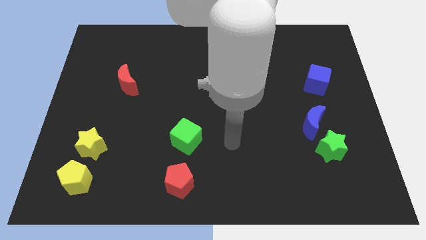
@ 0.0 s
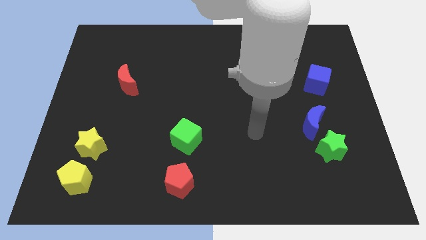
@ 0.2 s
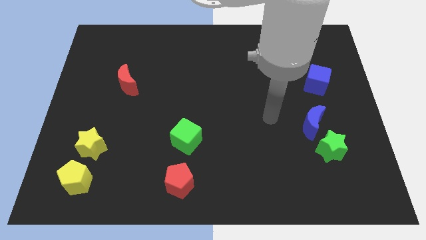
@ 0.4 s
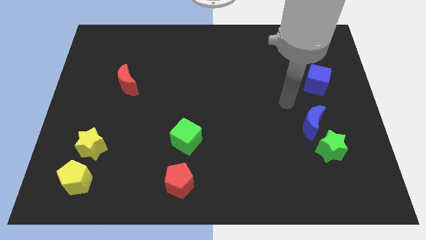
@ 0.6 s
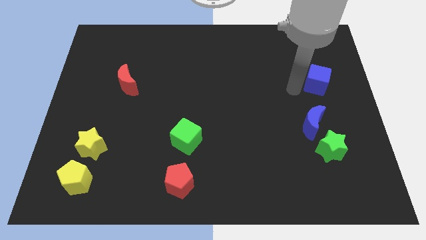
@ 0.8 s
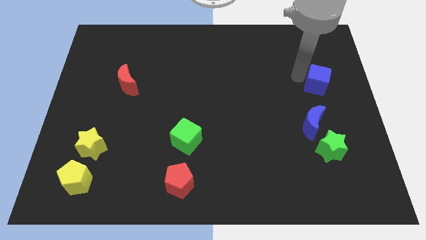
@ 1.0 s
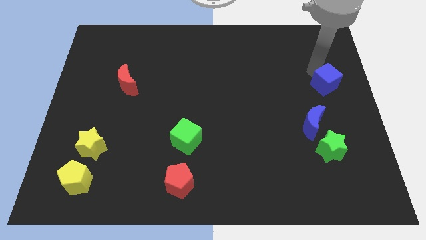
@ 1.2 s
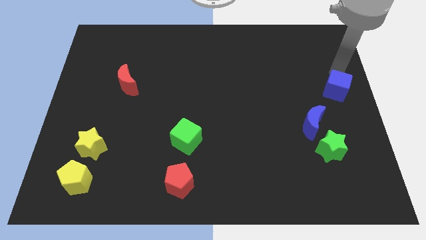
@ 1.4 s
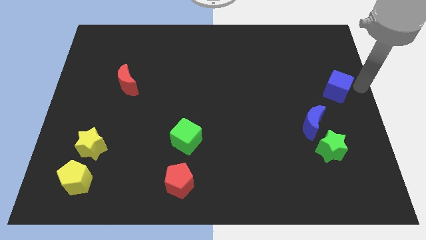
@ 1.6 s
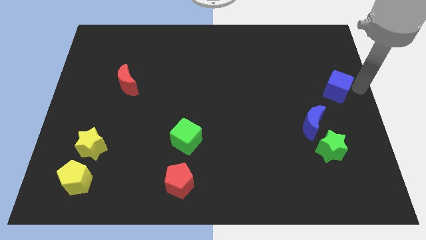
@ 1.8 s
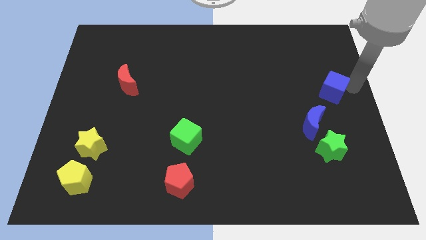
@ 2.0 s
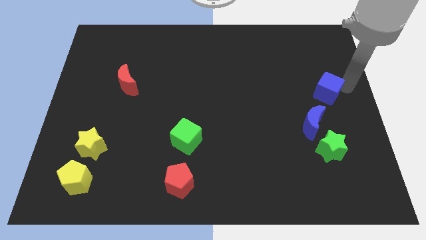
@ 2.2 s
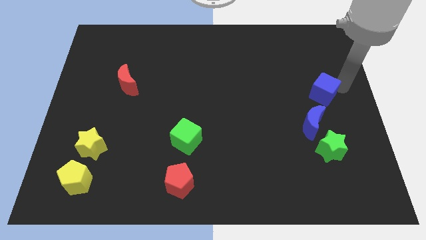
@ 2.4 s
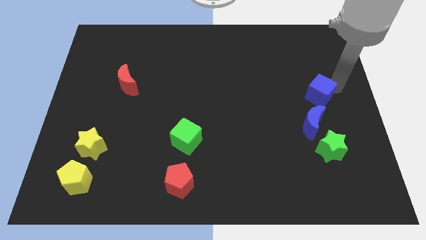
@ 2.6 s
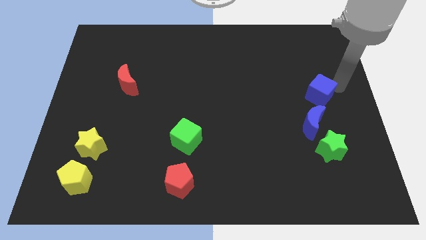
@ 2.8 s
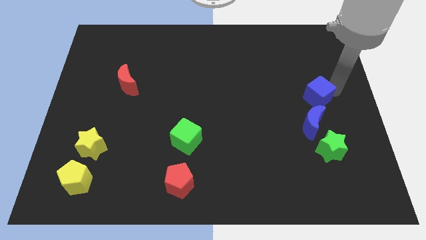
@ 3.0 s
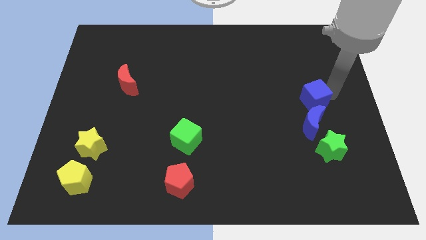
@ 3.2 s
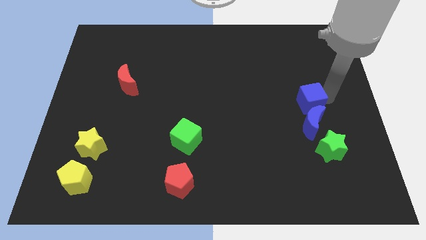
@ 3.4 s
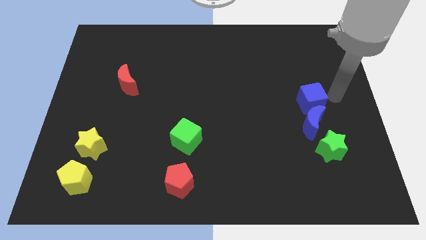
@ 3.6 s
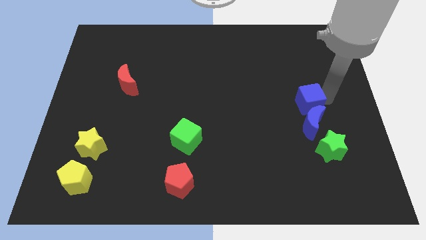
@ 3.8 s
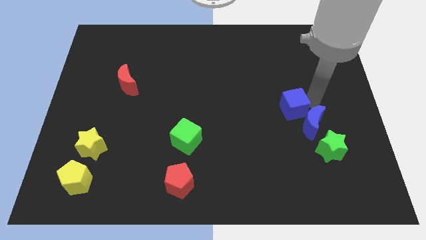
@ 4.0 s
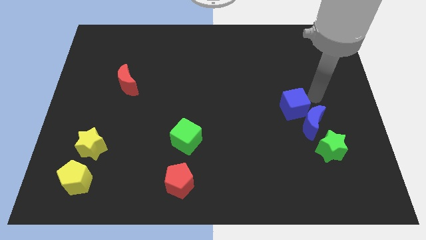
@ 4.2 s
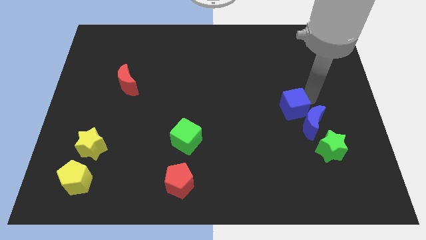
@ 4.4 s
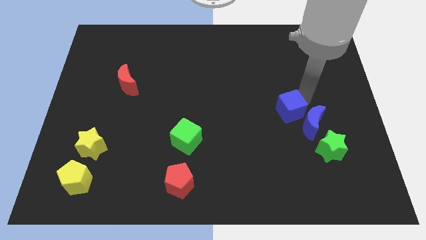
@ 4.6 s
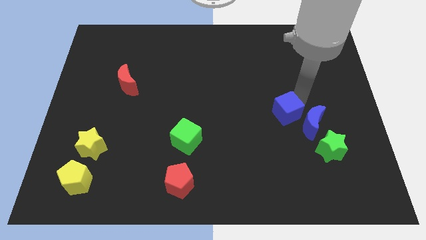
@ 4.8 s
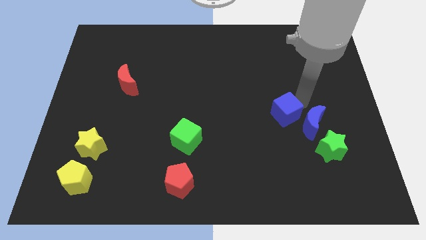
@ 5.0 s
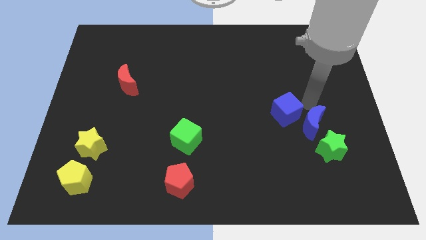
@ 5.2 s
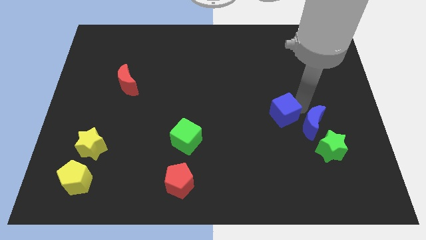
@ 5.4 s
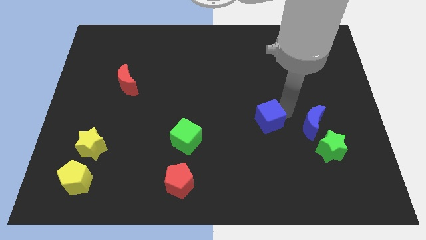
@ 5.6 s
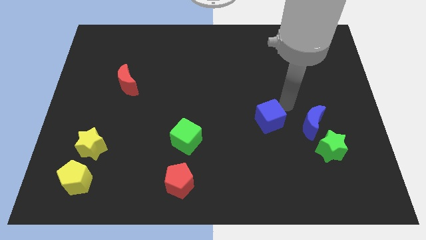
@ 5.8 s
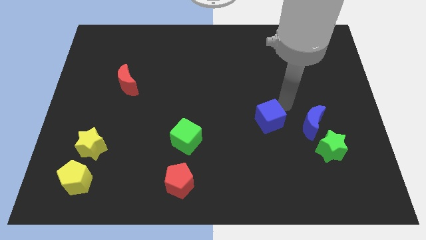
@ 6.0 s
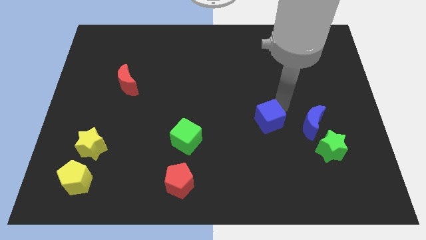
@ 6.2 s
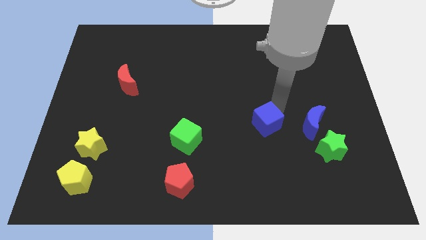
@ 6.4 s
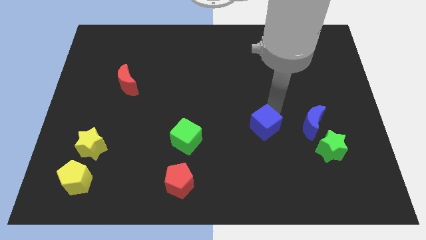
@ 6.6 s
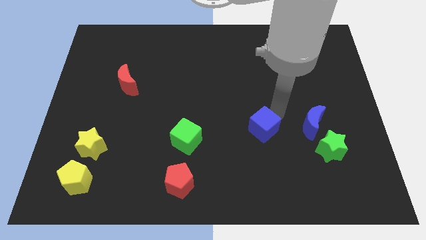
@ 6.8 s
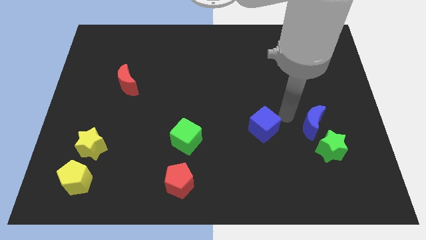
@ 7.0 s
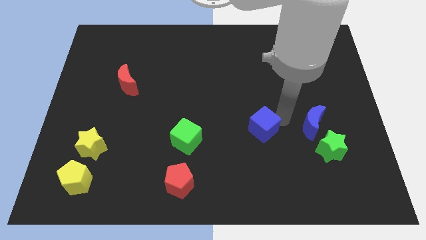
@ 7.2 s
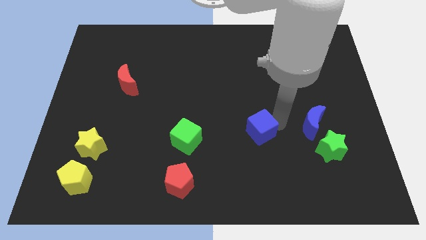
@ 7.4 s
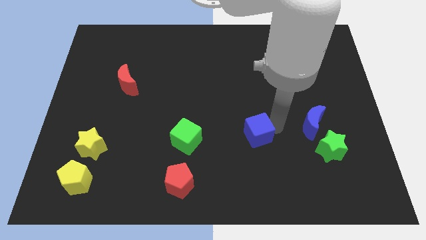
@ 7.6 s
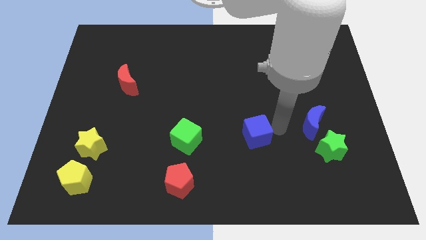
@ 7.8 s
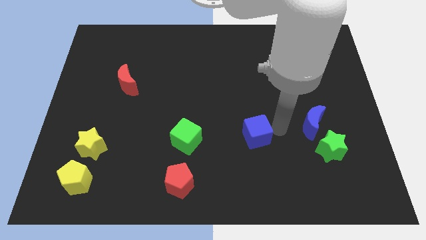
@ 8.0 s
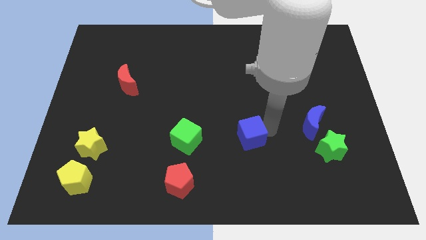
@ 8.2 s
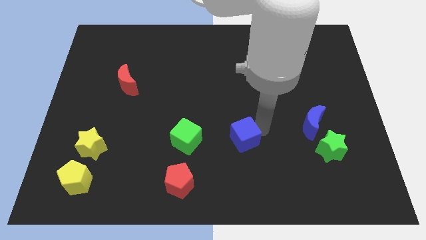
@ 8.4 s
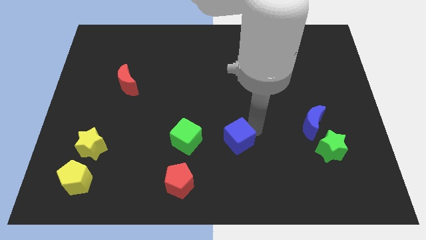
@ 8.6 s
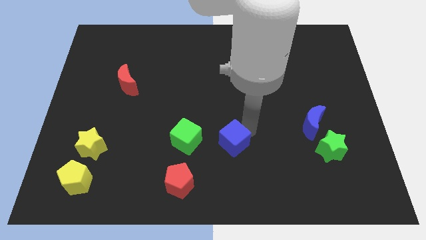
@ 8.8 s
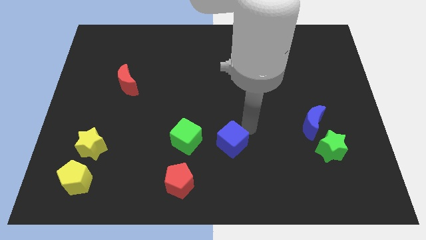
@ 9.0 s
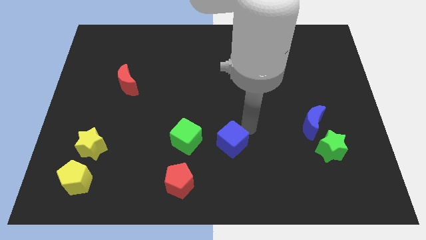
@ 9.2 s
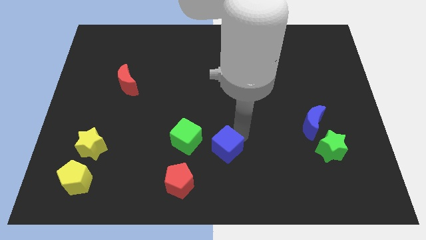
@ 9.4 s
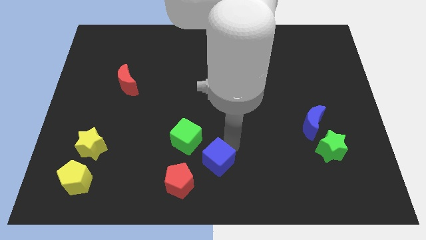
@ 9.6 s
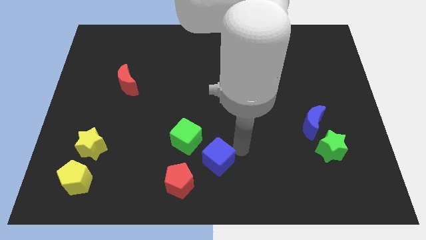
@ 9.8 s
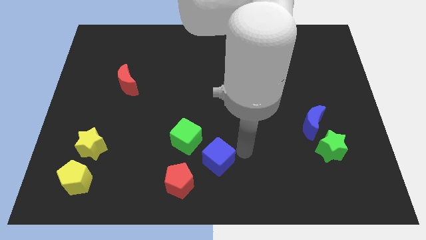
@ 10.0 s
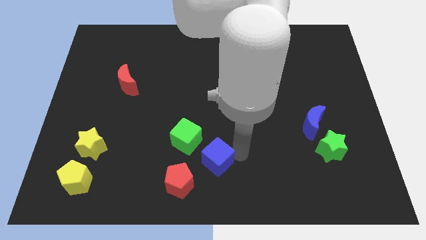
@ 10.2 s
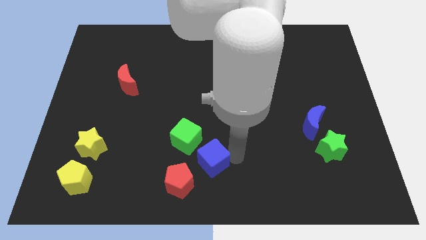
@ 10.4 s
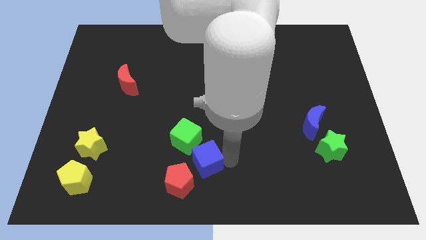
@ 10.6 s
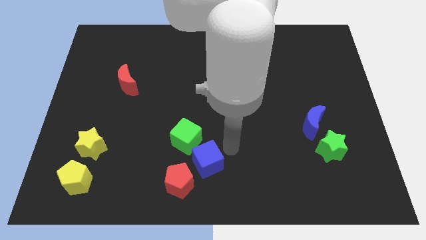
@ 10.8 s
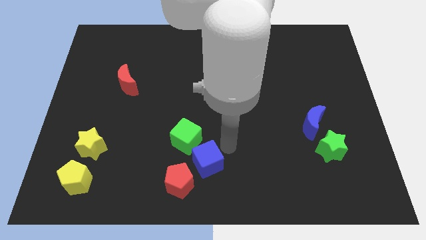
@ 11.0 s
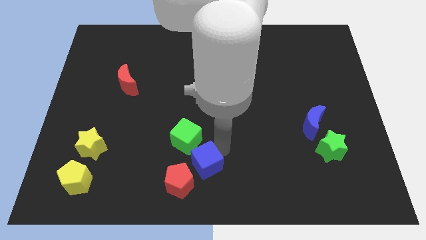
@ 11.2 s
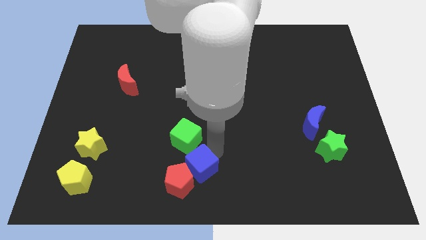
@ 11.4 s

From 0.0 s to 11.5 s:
slide the blue cube towards the red pentagon
